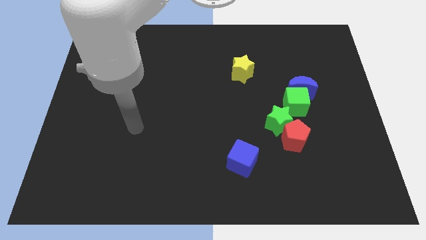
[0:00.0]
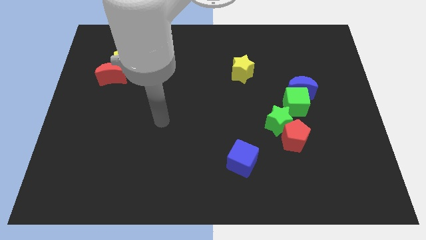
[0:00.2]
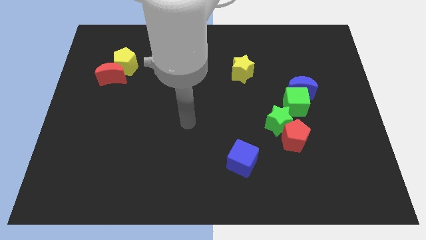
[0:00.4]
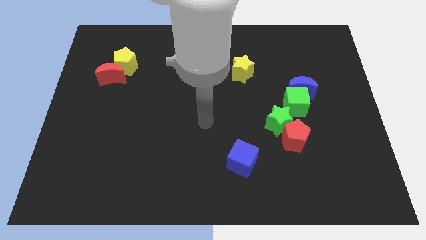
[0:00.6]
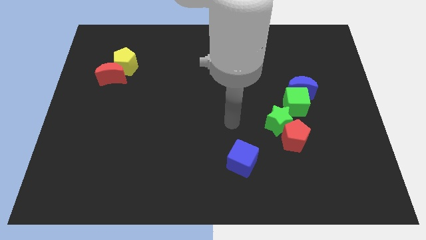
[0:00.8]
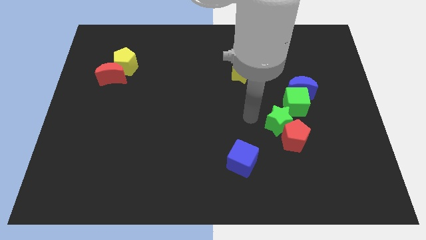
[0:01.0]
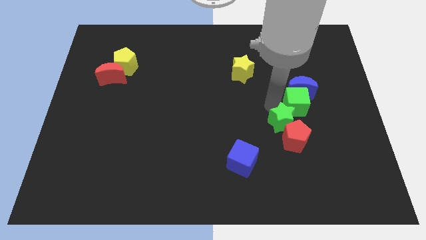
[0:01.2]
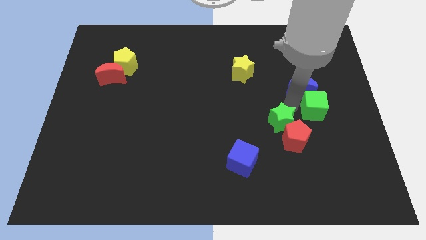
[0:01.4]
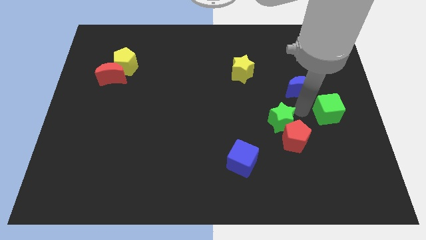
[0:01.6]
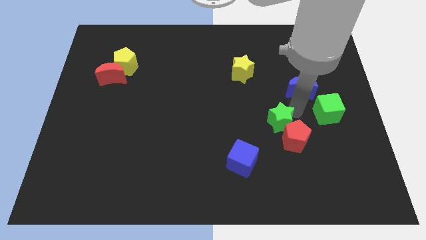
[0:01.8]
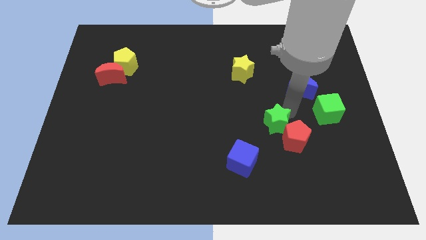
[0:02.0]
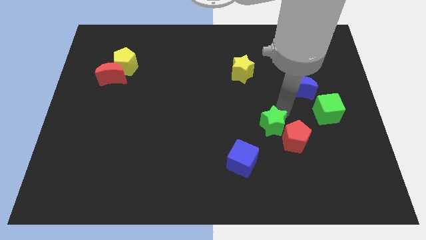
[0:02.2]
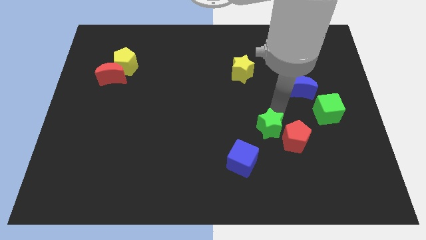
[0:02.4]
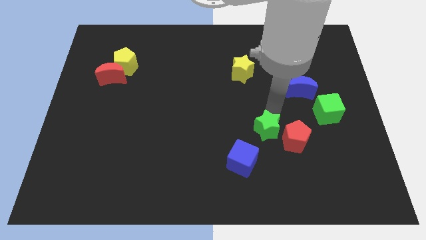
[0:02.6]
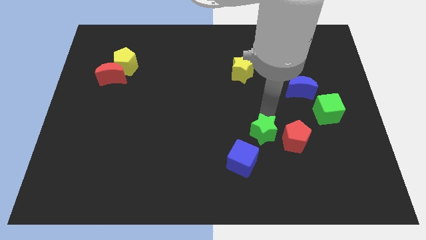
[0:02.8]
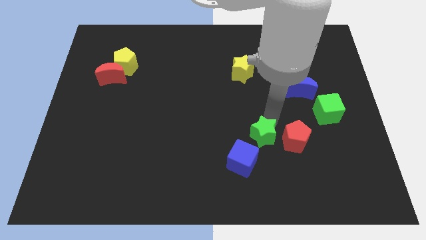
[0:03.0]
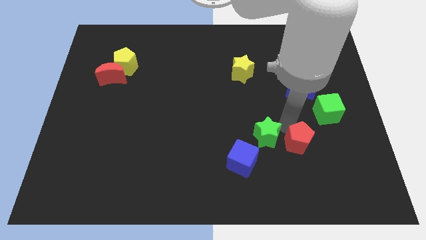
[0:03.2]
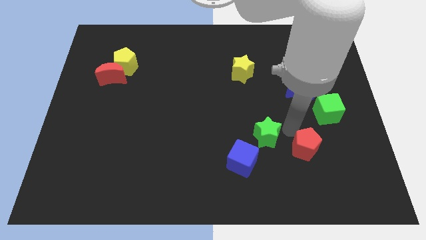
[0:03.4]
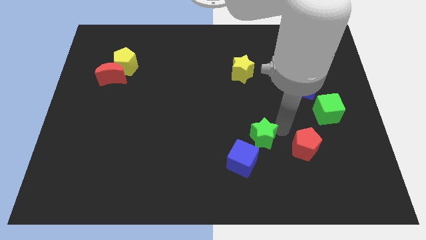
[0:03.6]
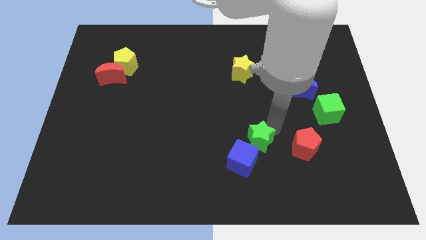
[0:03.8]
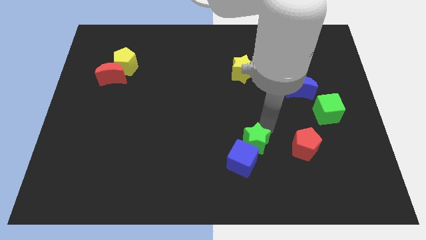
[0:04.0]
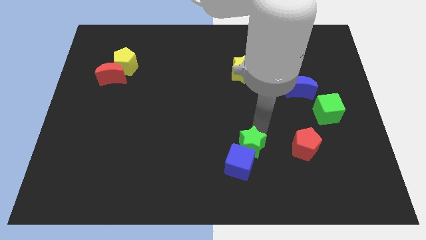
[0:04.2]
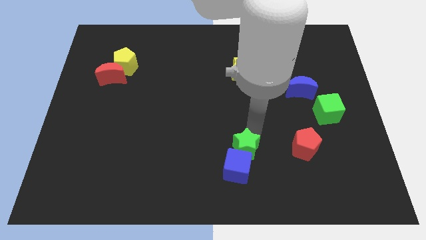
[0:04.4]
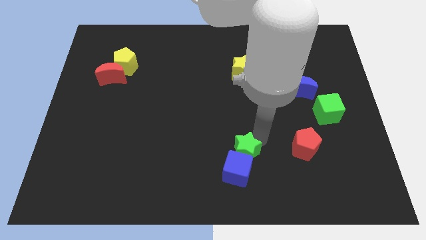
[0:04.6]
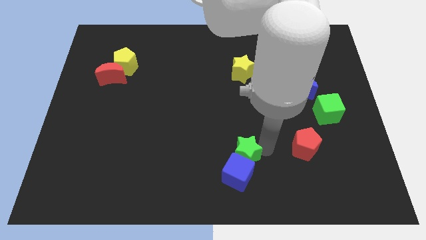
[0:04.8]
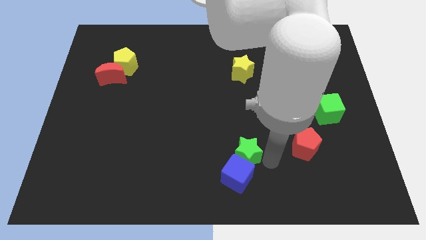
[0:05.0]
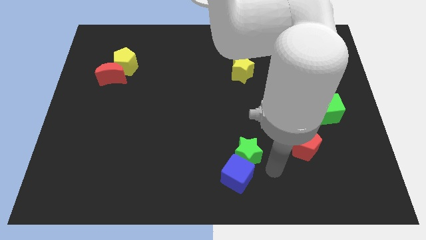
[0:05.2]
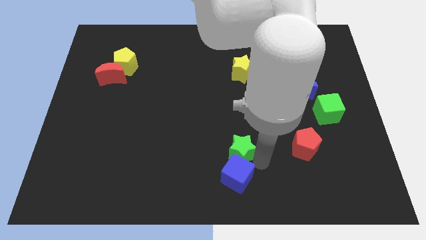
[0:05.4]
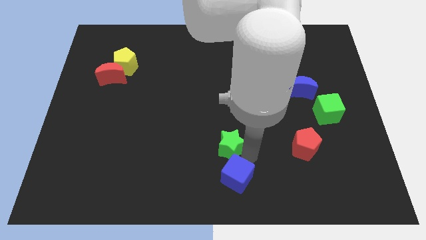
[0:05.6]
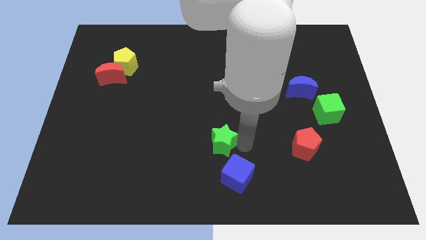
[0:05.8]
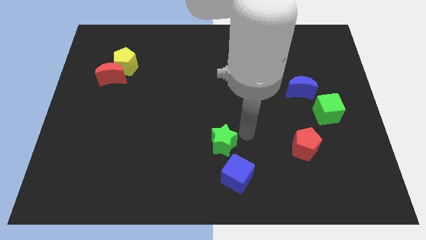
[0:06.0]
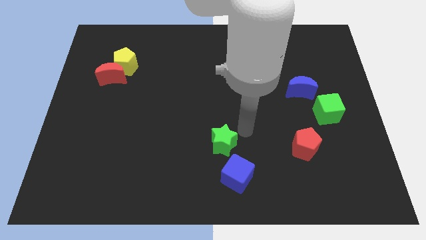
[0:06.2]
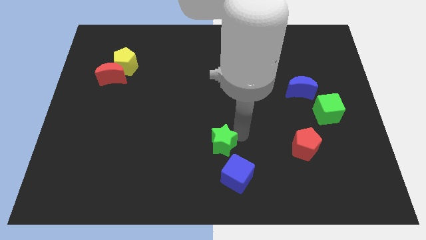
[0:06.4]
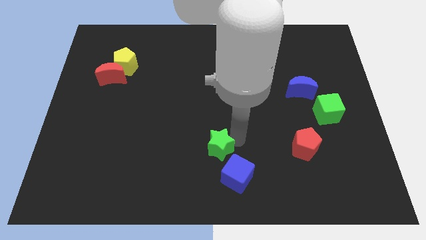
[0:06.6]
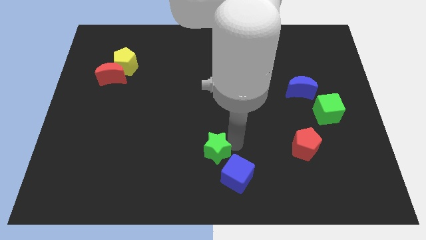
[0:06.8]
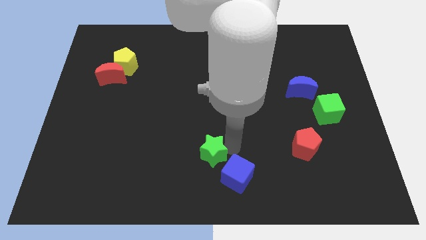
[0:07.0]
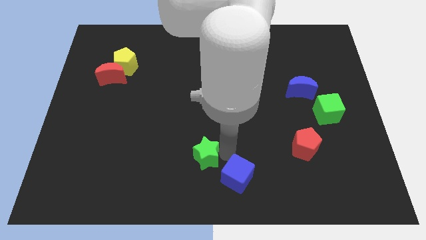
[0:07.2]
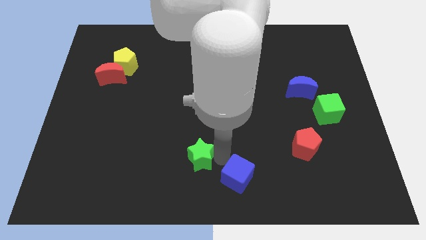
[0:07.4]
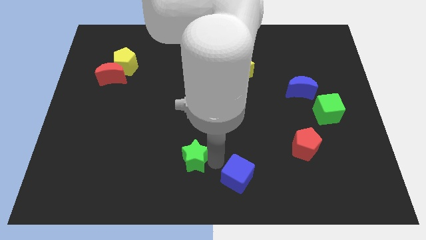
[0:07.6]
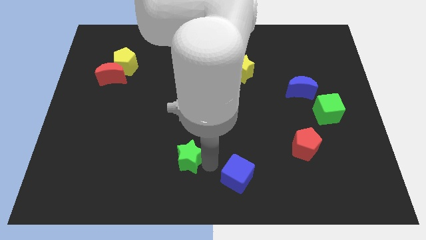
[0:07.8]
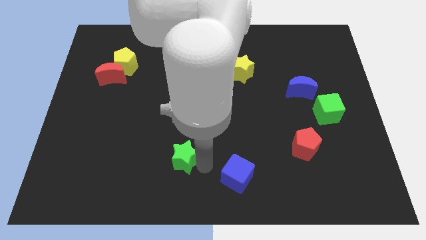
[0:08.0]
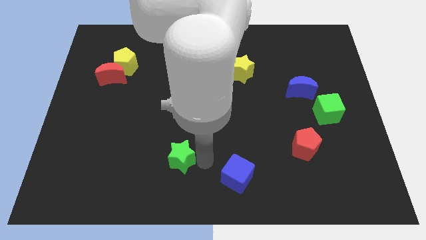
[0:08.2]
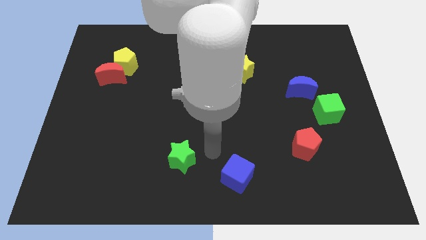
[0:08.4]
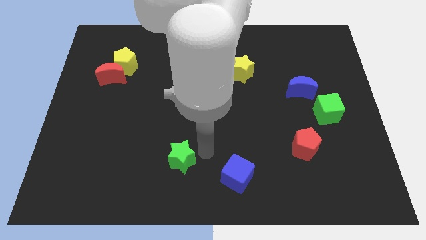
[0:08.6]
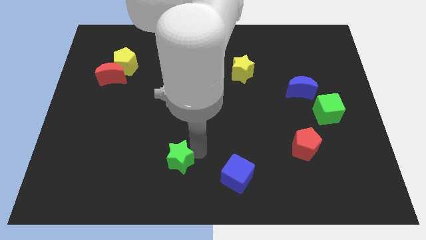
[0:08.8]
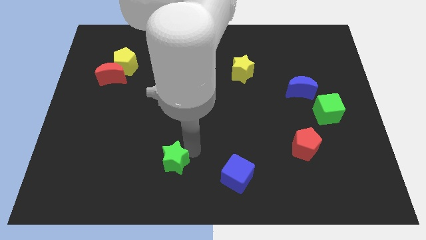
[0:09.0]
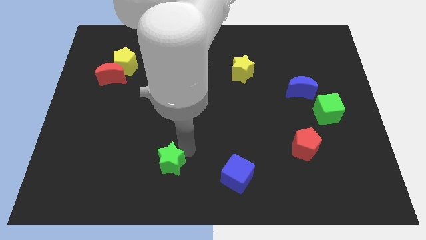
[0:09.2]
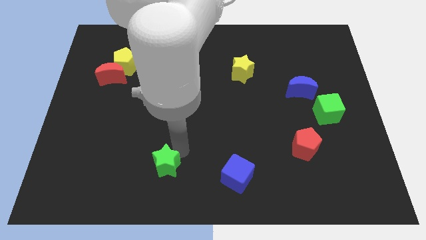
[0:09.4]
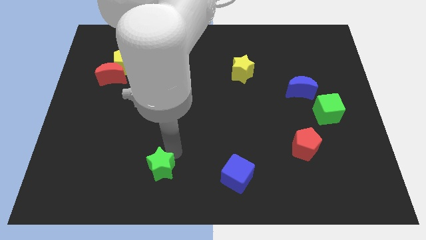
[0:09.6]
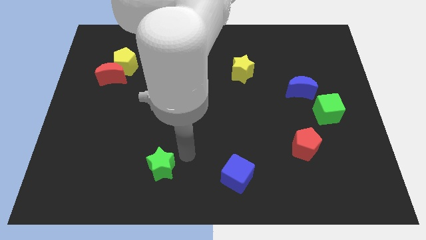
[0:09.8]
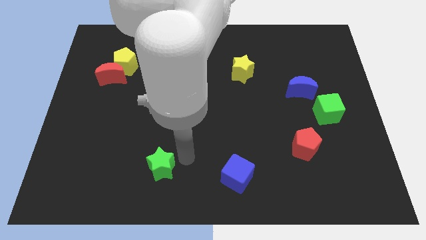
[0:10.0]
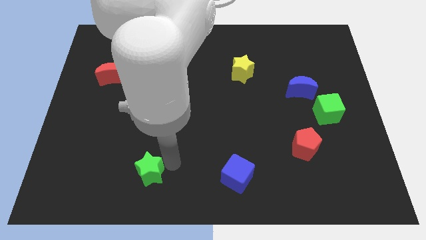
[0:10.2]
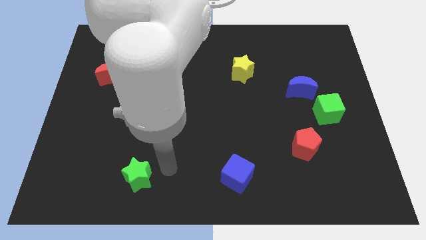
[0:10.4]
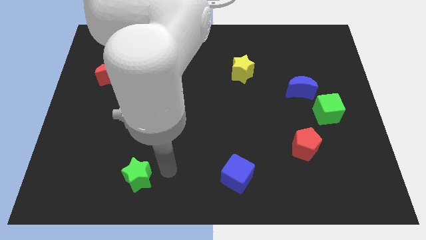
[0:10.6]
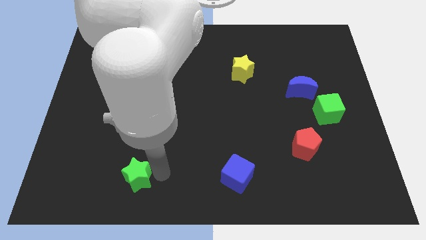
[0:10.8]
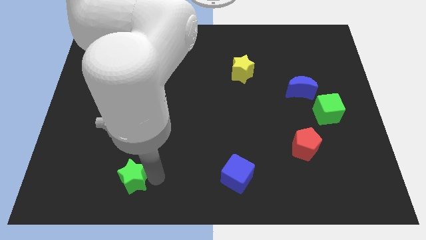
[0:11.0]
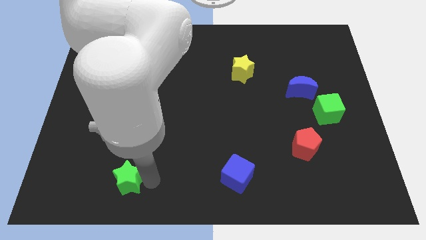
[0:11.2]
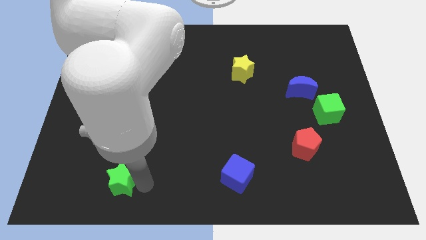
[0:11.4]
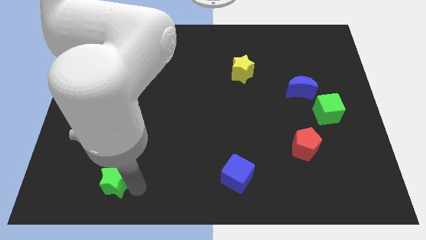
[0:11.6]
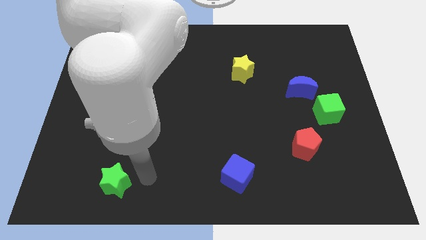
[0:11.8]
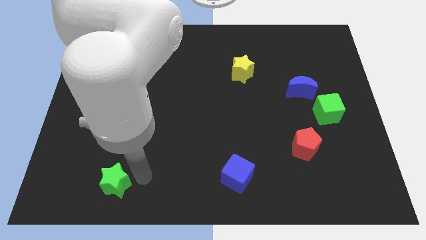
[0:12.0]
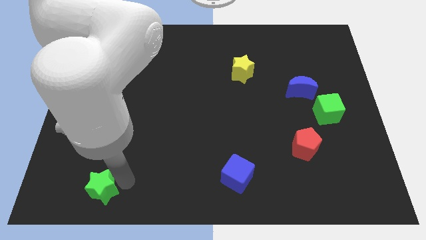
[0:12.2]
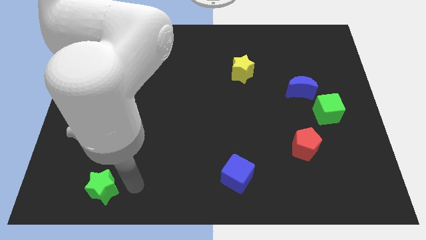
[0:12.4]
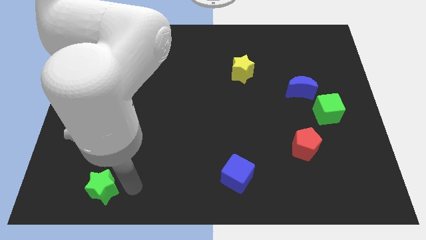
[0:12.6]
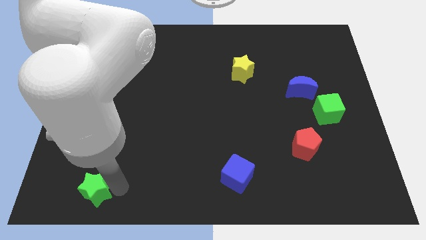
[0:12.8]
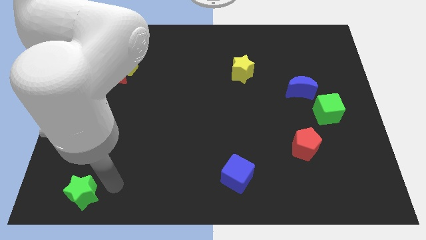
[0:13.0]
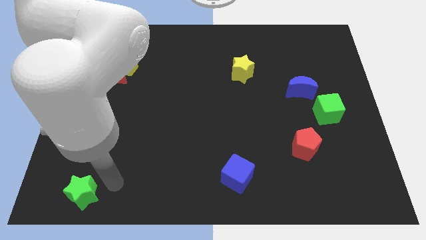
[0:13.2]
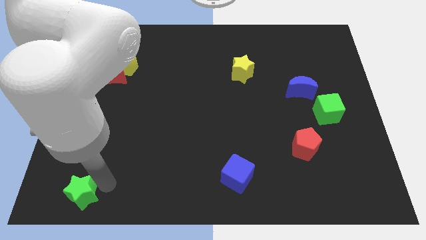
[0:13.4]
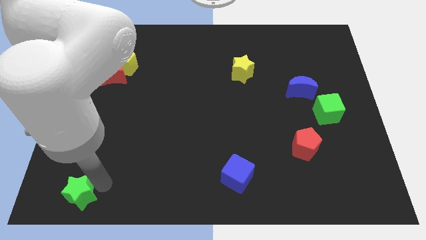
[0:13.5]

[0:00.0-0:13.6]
put the green star to the bottom left
